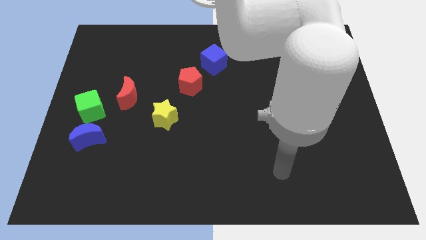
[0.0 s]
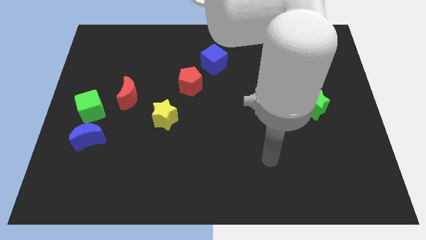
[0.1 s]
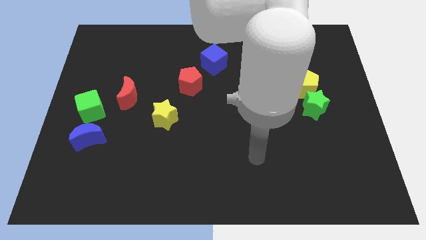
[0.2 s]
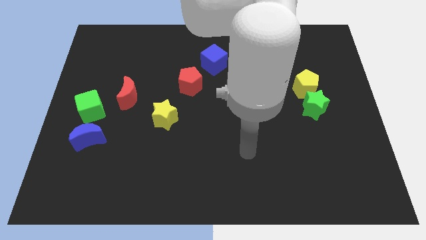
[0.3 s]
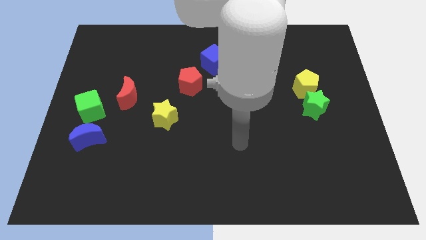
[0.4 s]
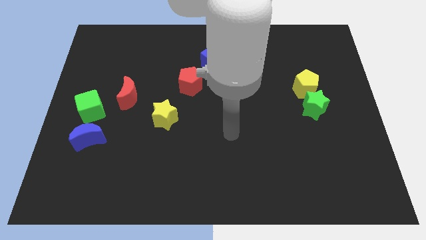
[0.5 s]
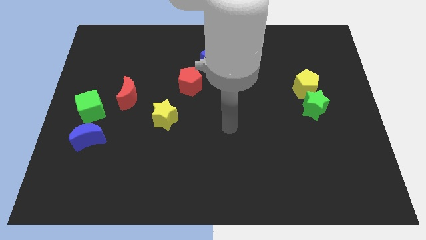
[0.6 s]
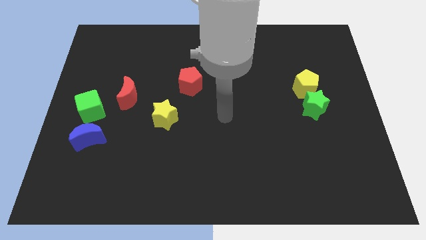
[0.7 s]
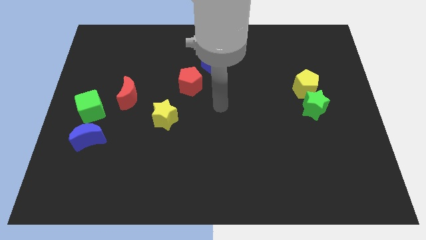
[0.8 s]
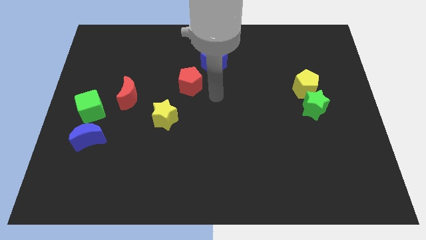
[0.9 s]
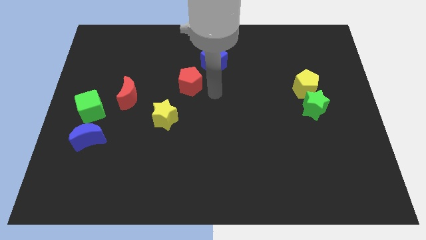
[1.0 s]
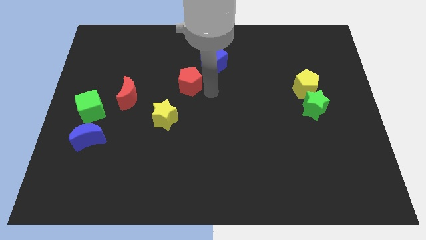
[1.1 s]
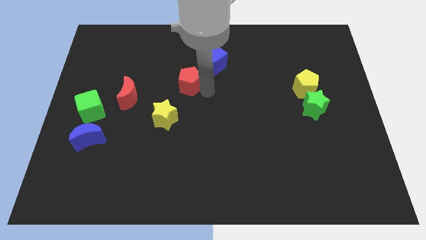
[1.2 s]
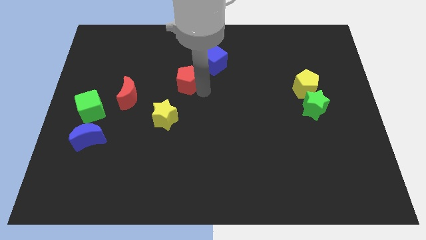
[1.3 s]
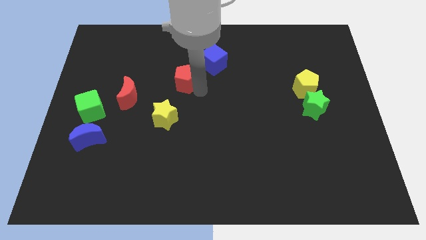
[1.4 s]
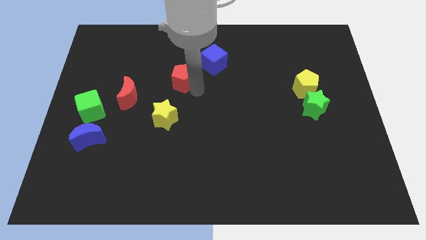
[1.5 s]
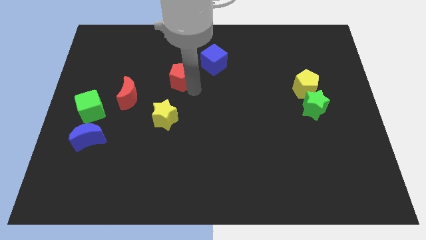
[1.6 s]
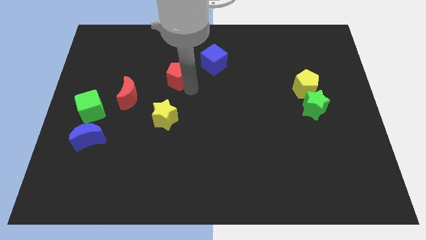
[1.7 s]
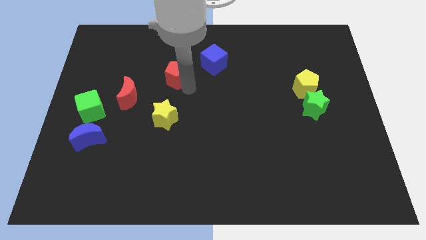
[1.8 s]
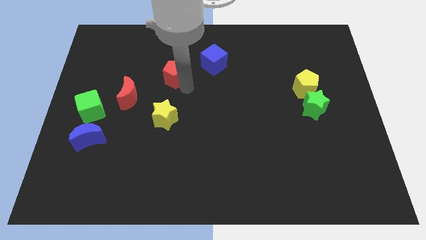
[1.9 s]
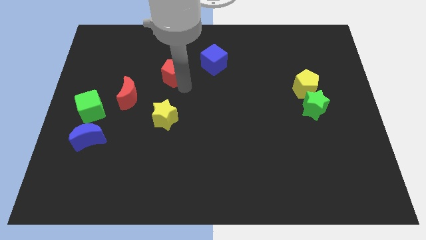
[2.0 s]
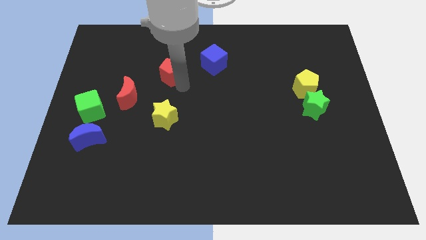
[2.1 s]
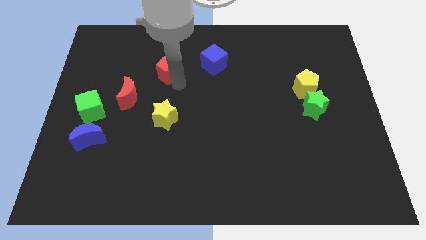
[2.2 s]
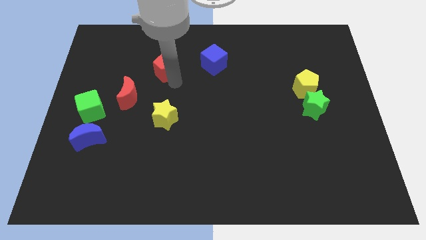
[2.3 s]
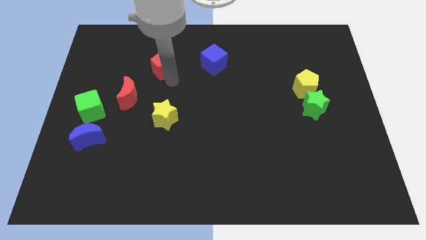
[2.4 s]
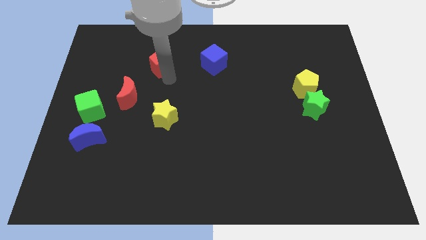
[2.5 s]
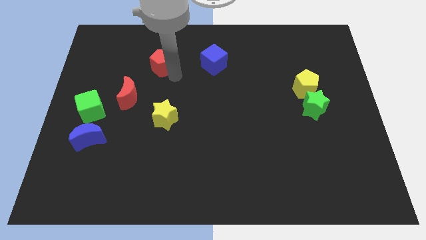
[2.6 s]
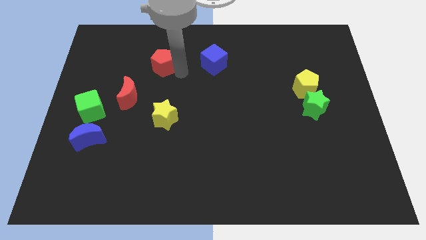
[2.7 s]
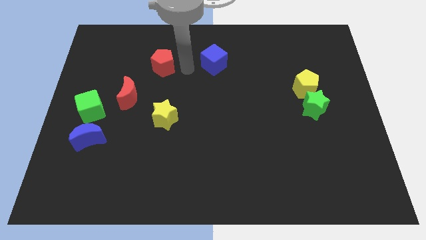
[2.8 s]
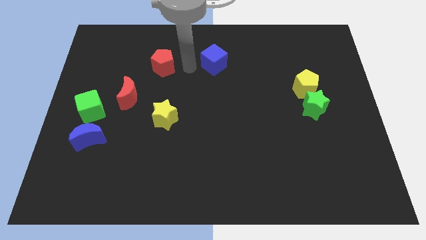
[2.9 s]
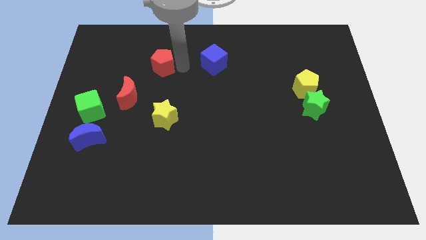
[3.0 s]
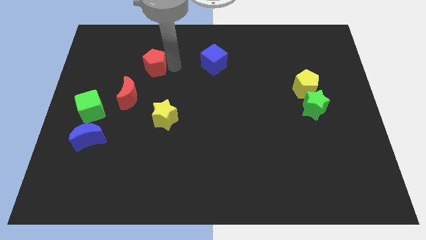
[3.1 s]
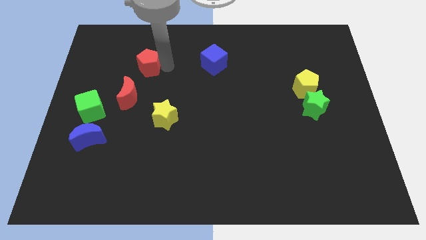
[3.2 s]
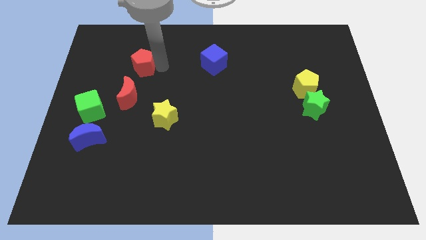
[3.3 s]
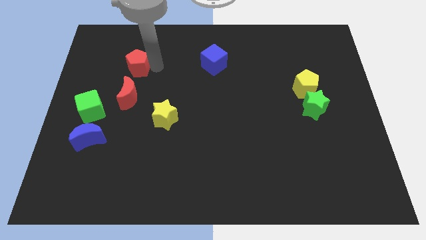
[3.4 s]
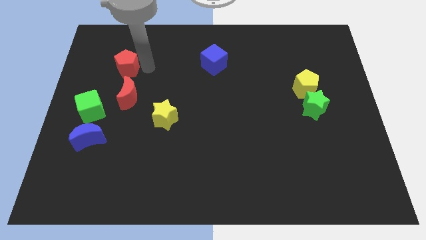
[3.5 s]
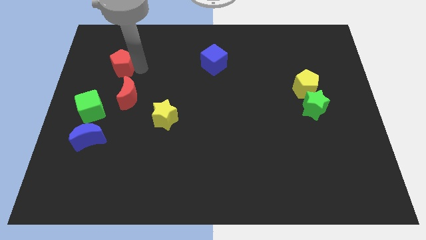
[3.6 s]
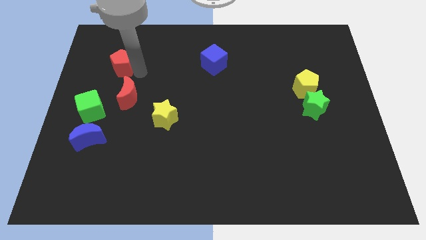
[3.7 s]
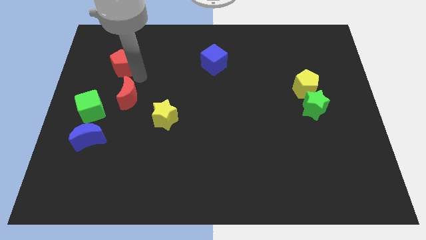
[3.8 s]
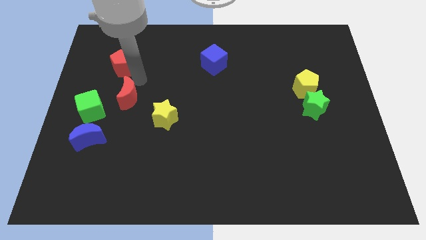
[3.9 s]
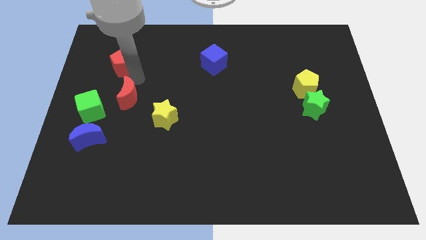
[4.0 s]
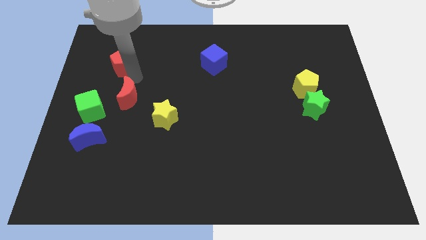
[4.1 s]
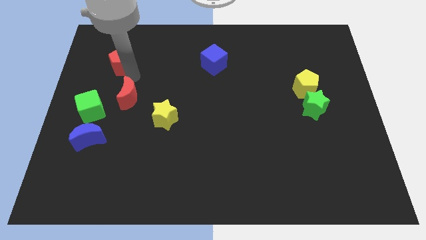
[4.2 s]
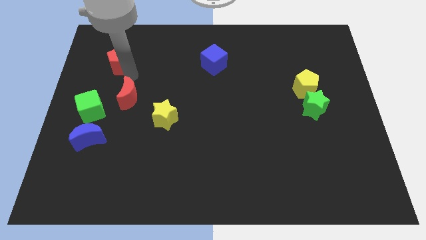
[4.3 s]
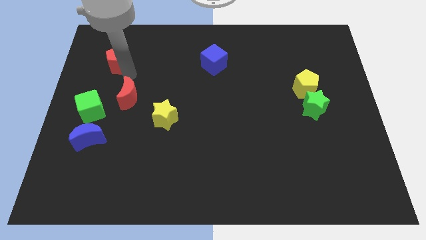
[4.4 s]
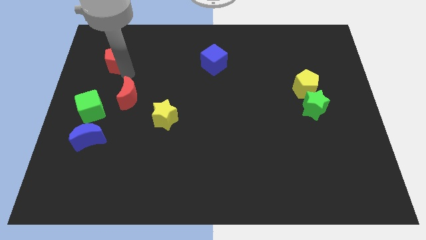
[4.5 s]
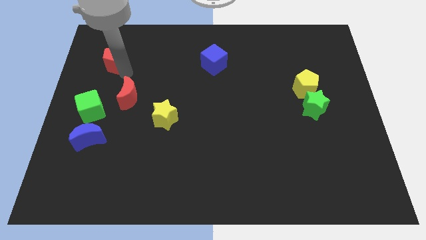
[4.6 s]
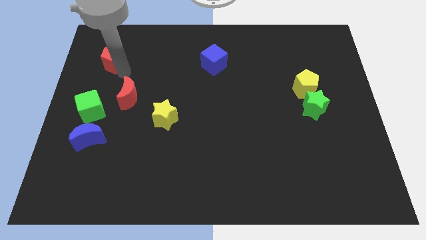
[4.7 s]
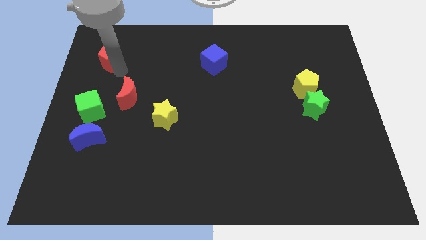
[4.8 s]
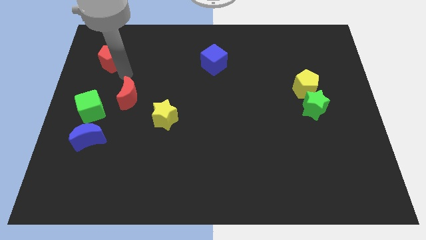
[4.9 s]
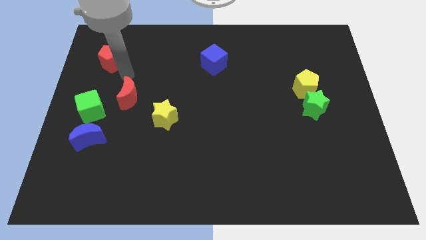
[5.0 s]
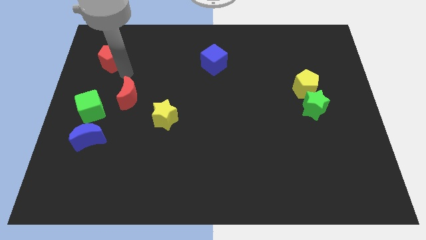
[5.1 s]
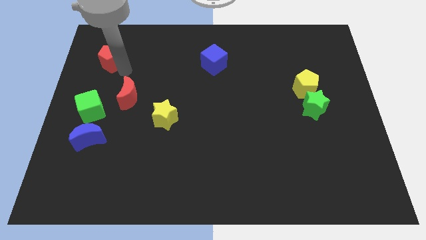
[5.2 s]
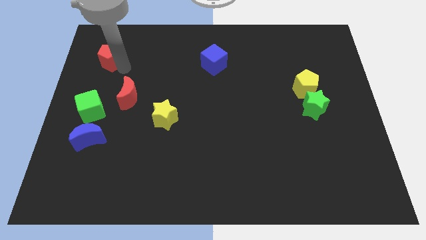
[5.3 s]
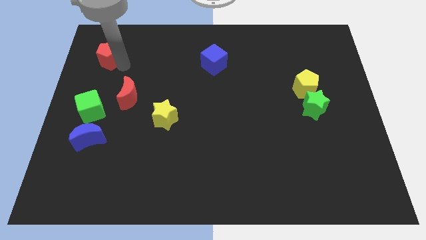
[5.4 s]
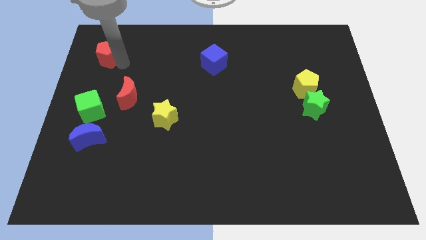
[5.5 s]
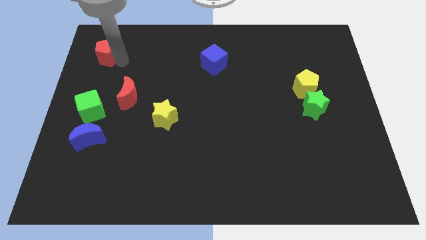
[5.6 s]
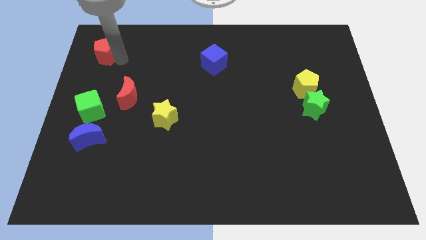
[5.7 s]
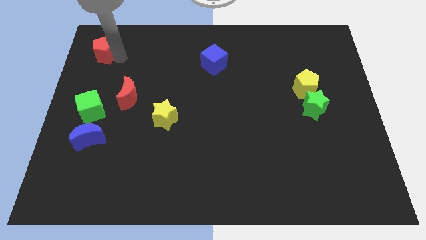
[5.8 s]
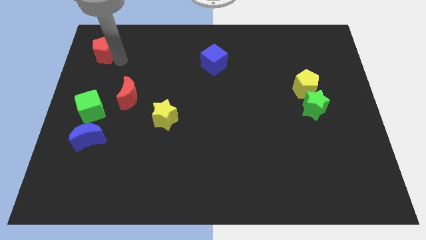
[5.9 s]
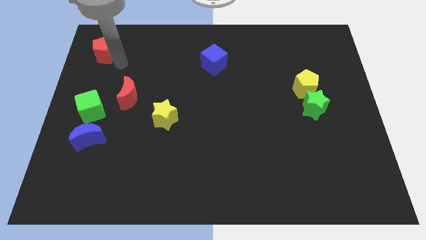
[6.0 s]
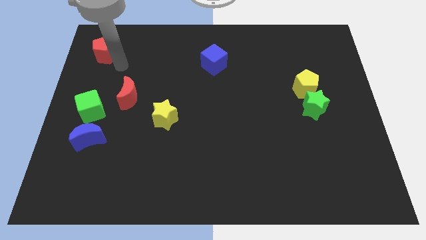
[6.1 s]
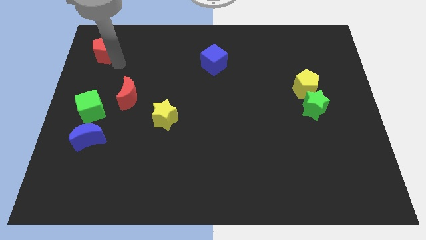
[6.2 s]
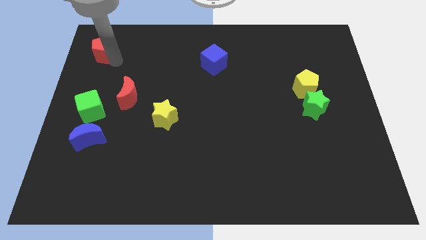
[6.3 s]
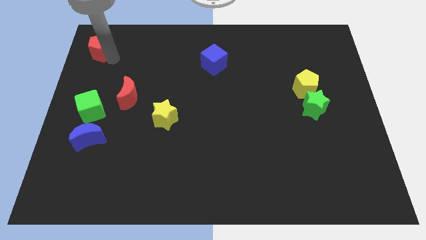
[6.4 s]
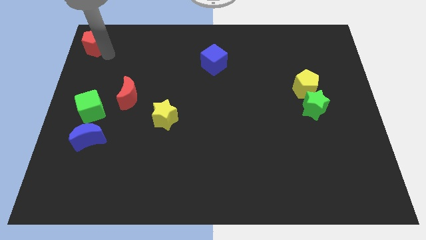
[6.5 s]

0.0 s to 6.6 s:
push the red pentagon to the upper left corner
